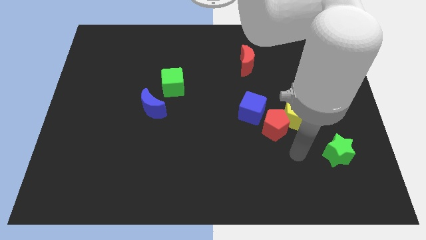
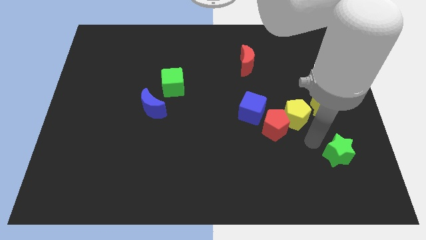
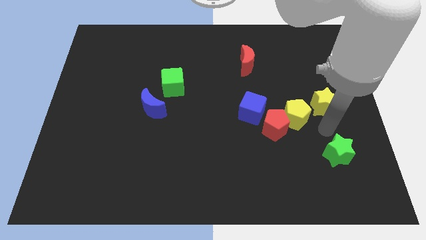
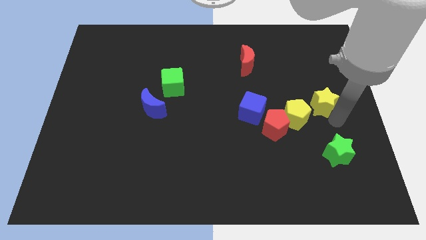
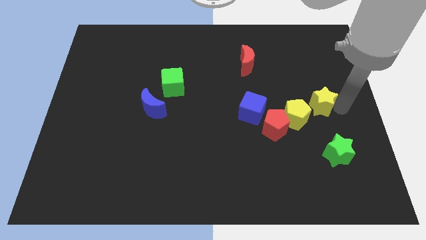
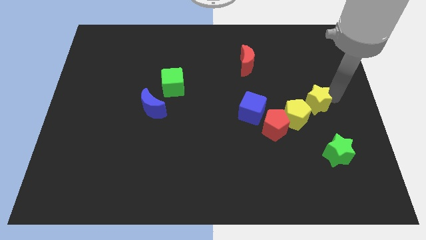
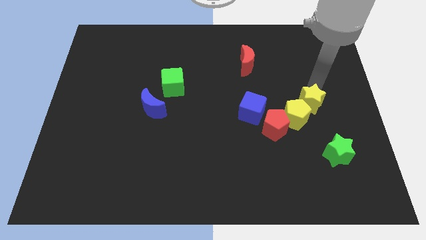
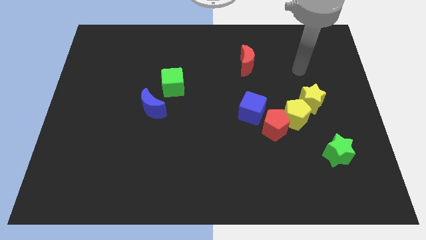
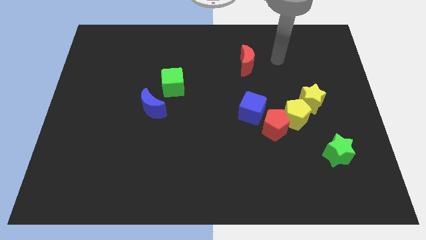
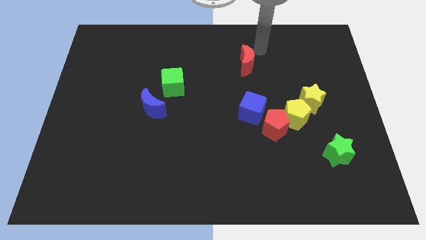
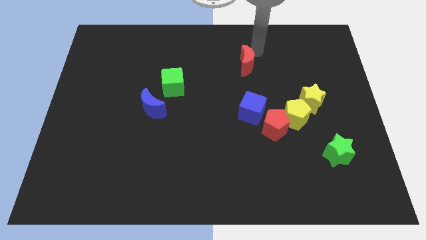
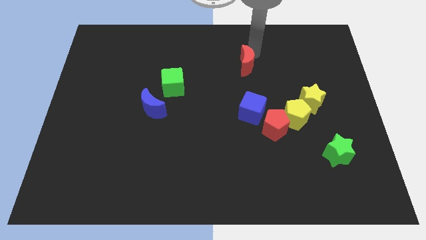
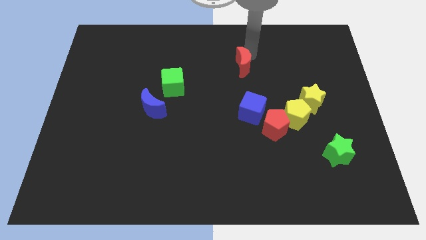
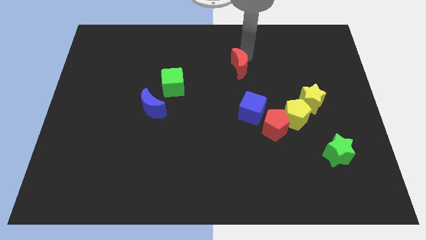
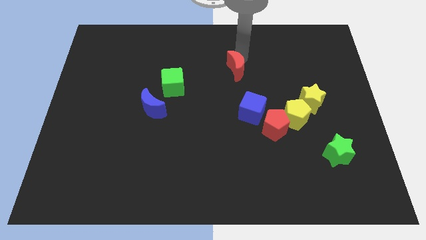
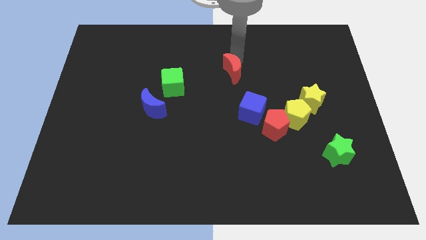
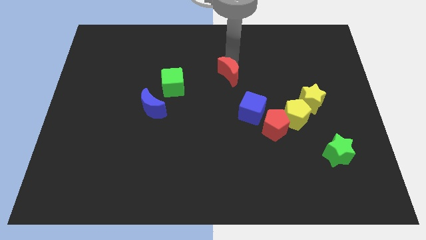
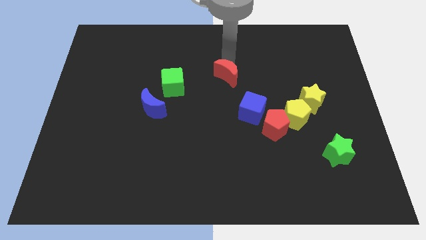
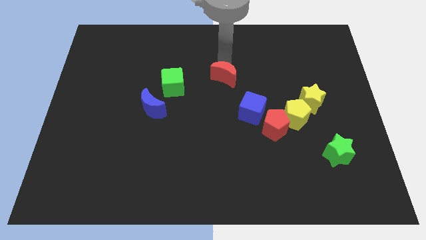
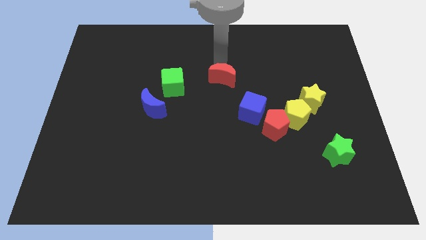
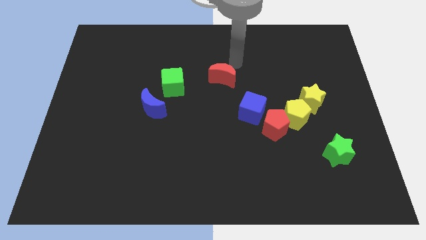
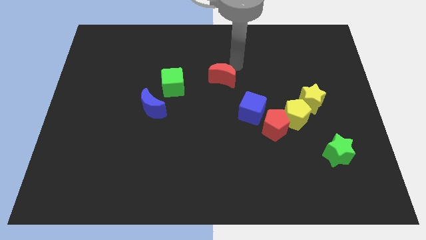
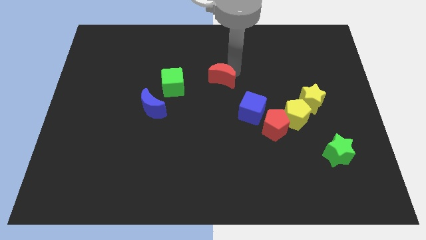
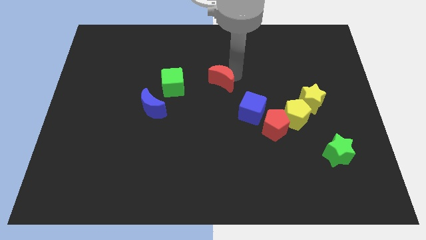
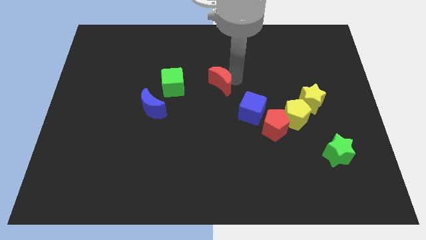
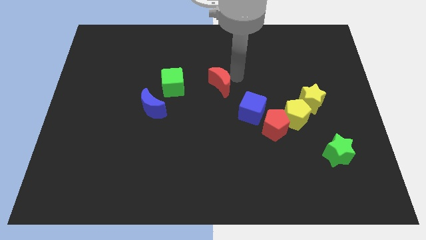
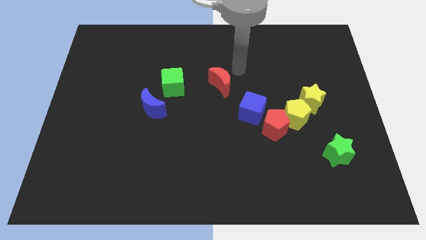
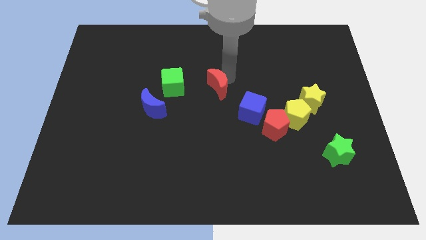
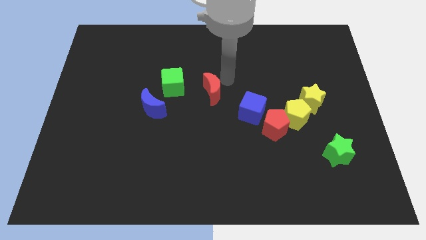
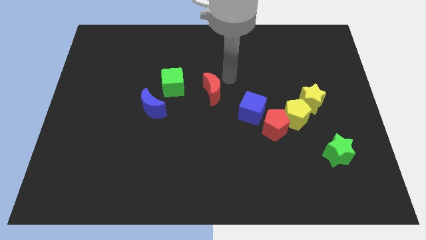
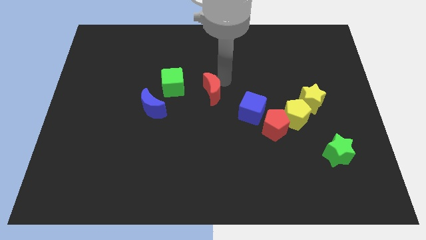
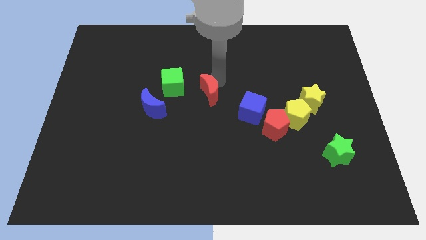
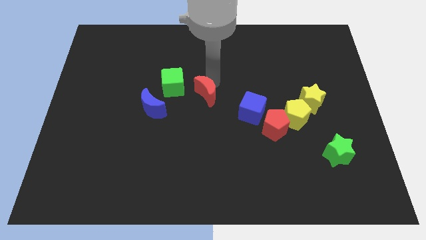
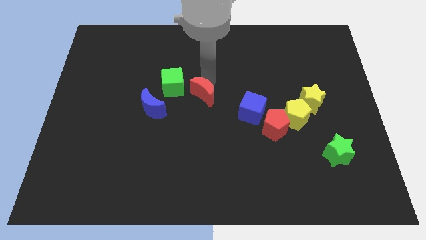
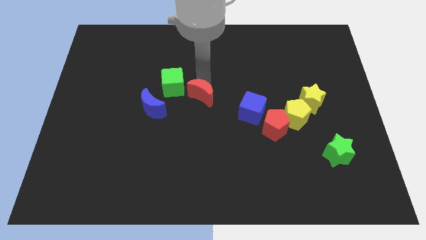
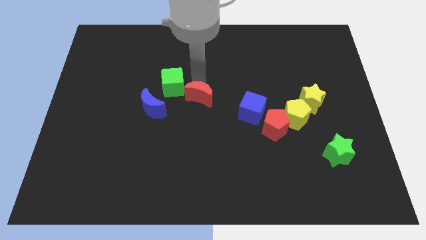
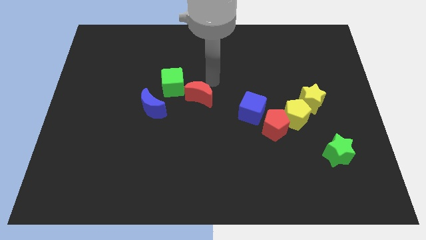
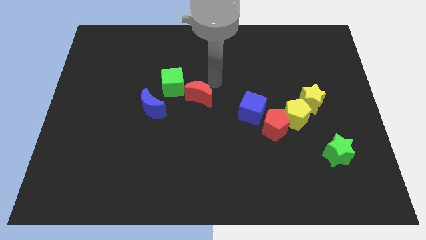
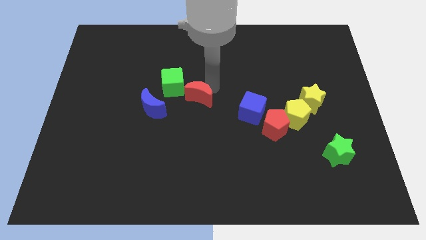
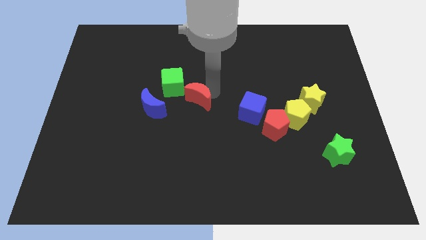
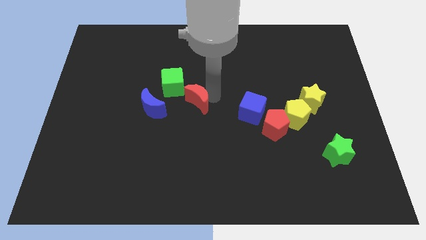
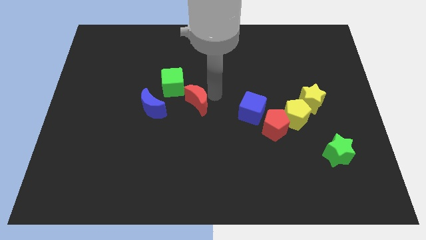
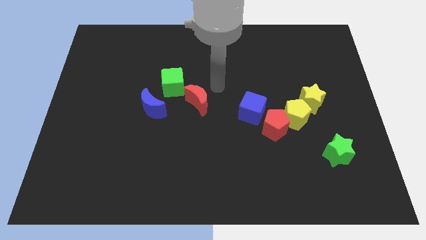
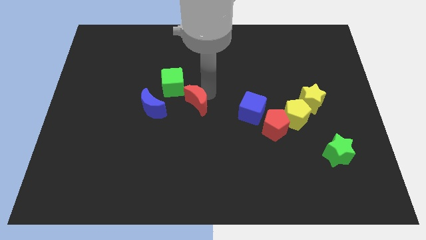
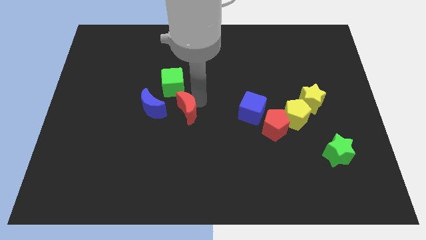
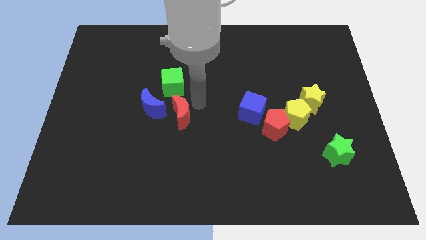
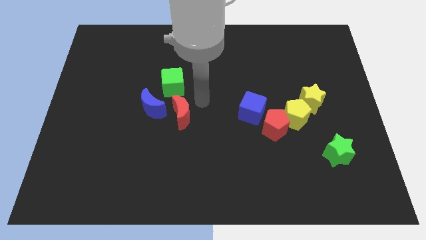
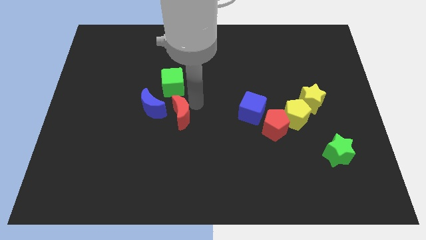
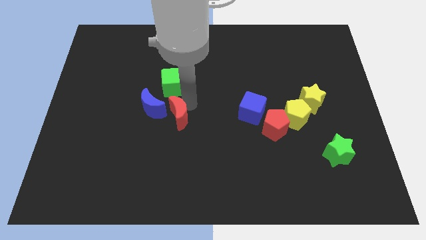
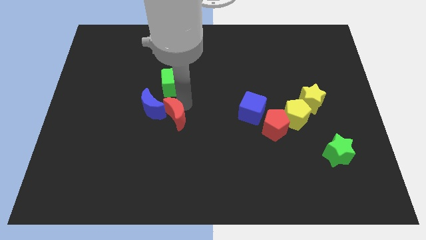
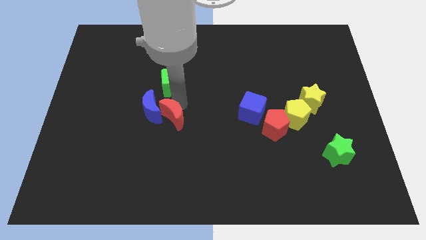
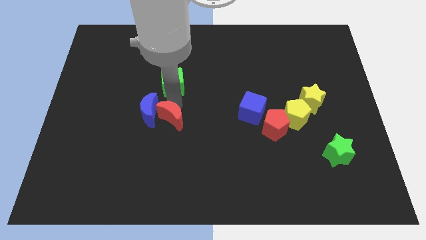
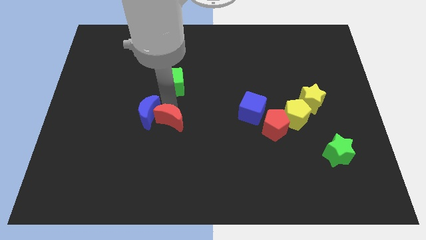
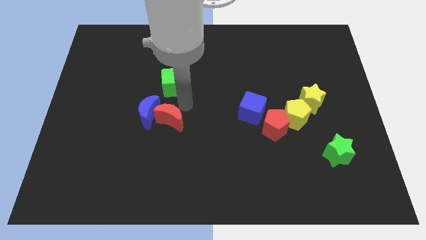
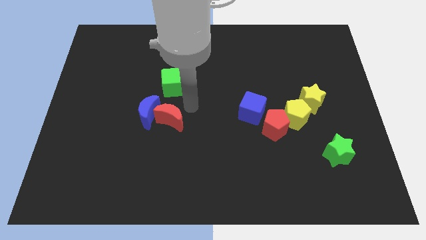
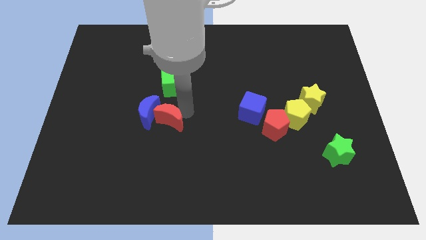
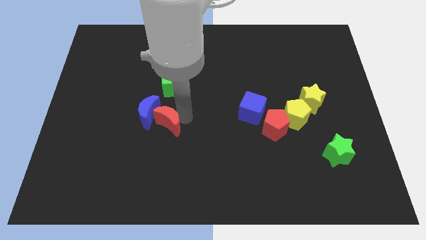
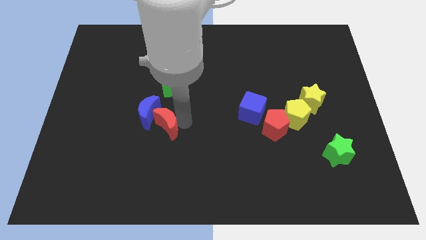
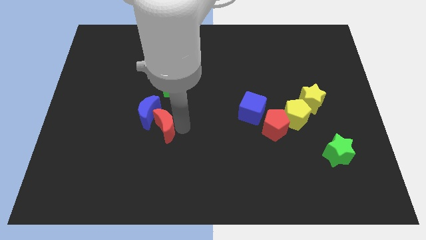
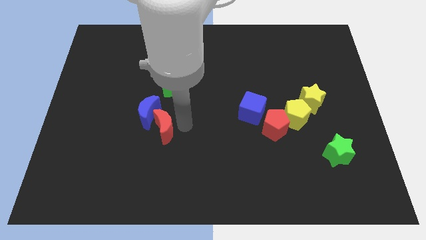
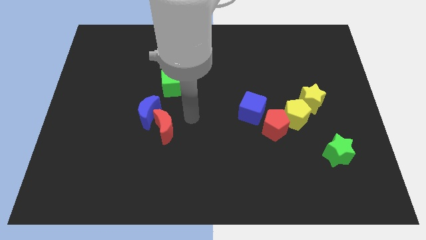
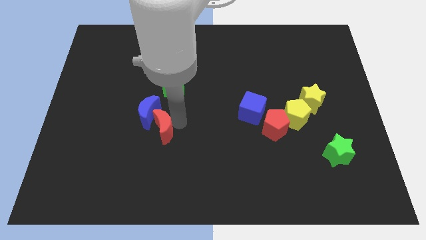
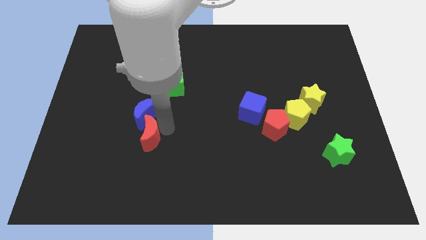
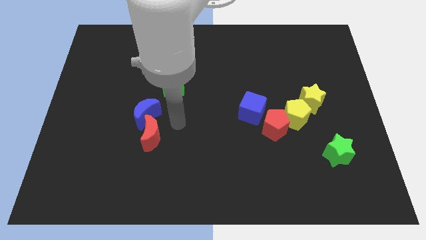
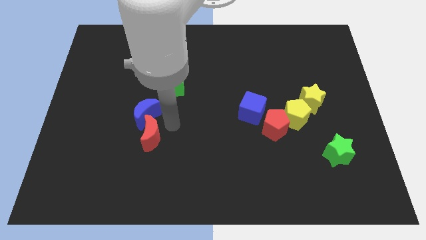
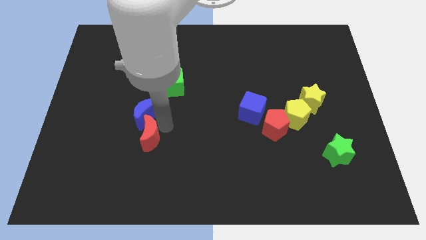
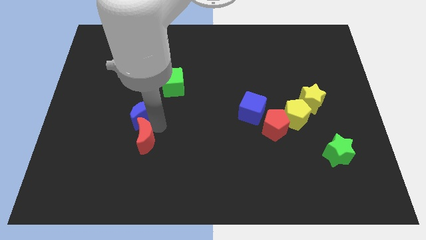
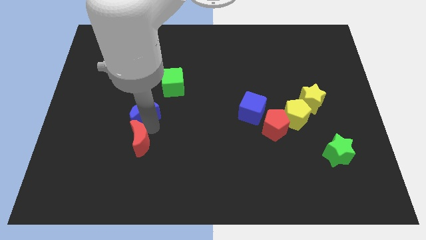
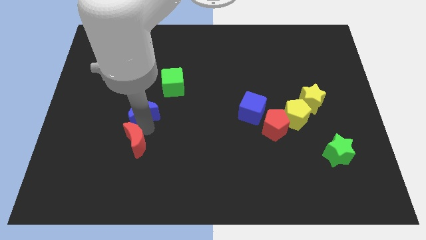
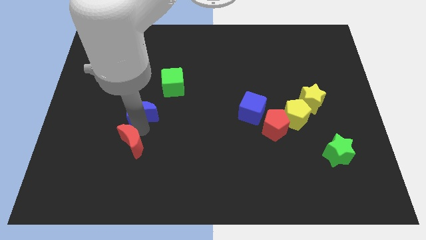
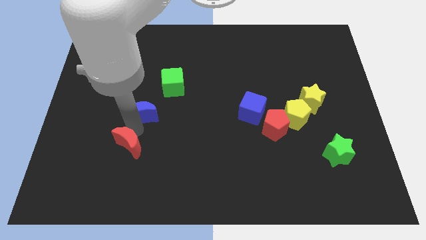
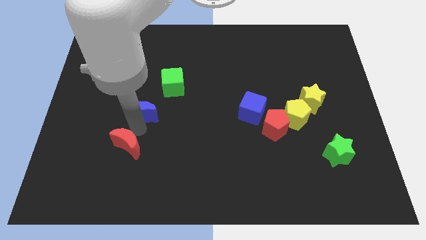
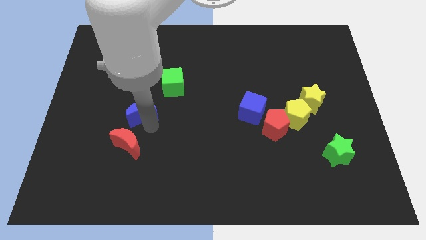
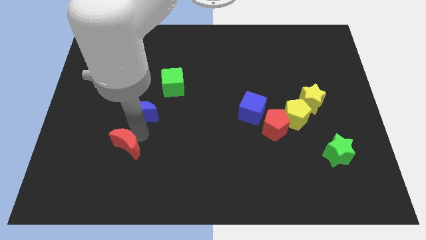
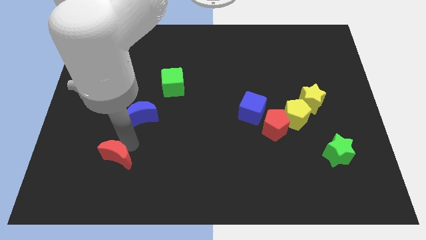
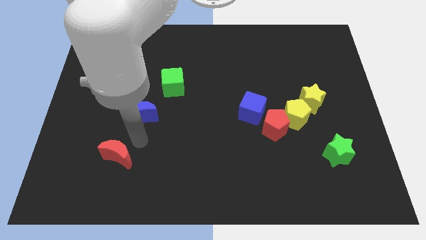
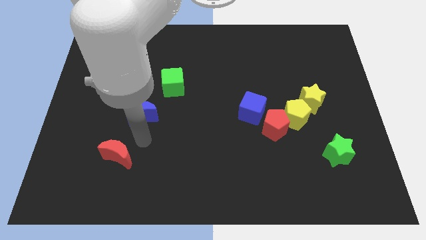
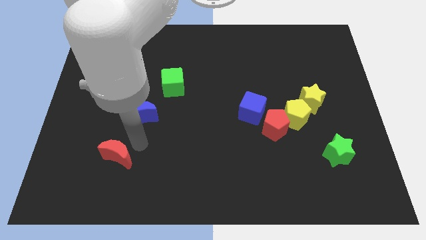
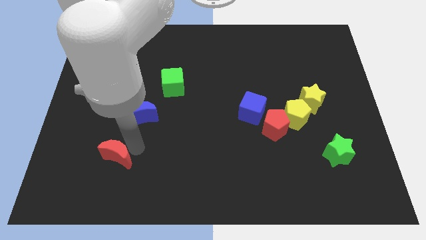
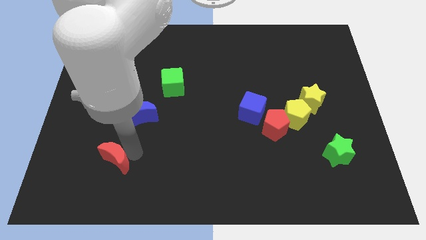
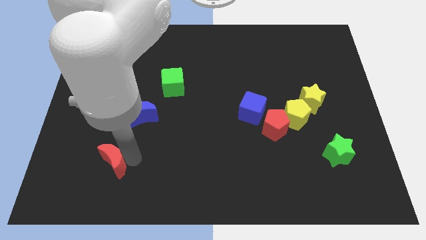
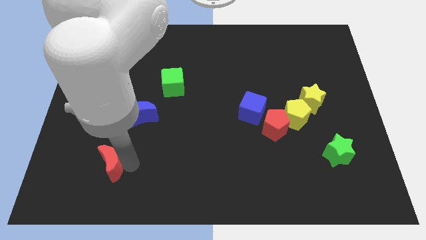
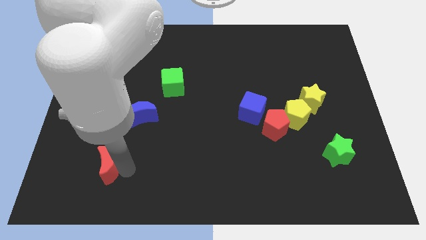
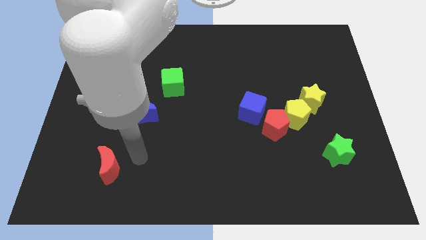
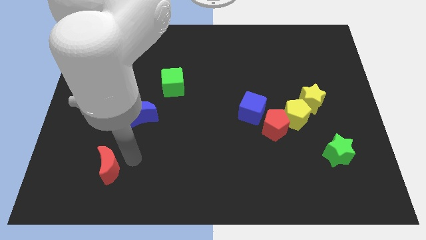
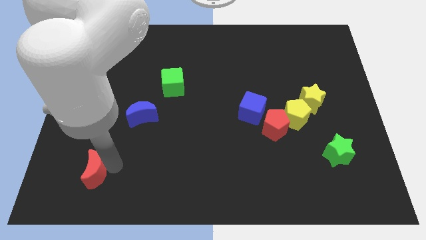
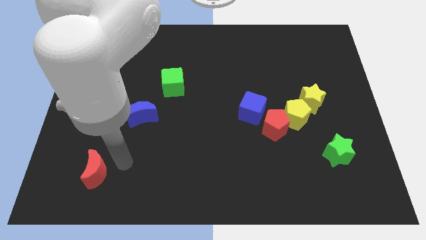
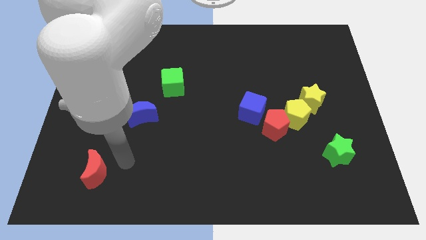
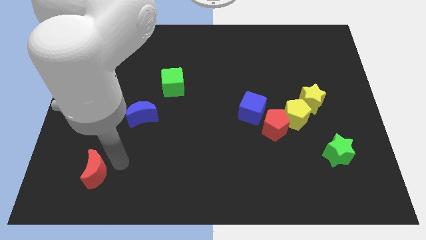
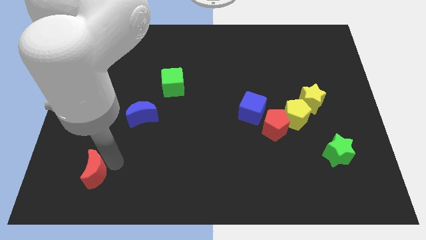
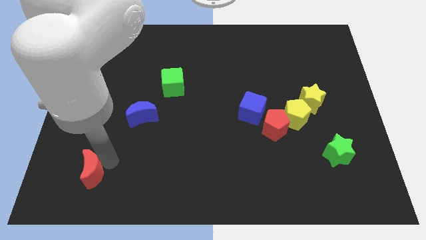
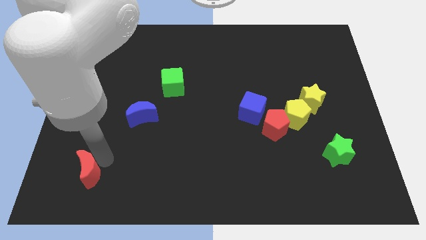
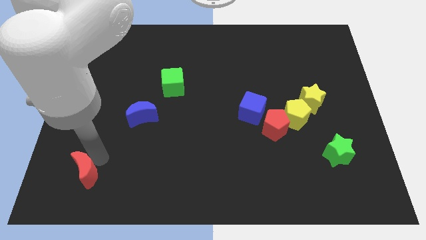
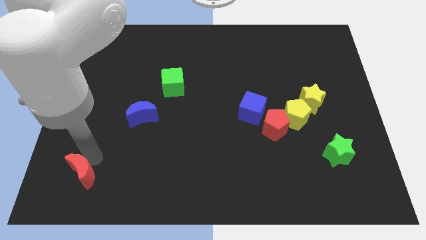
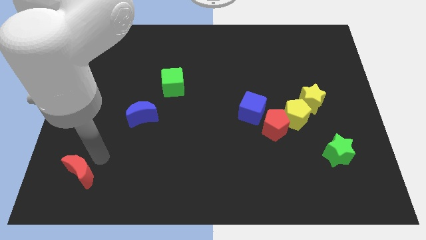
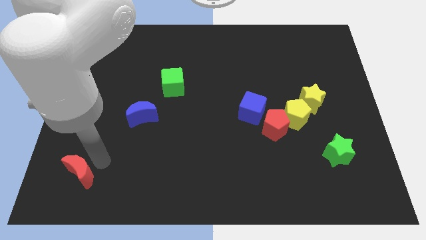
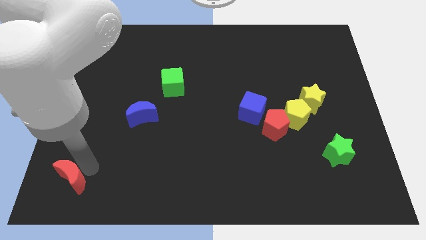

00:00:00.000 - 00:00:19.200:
slide the red moon to the bottom left
